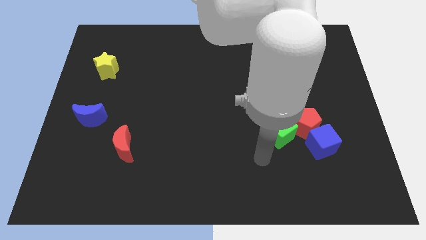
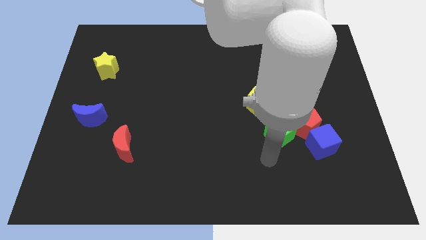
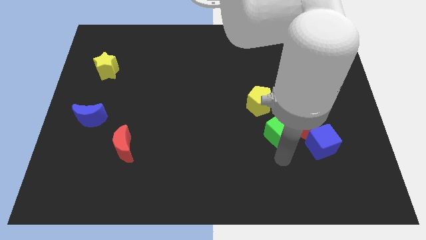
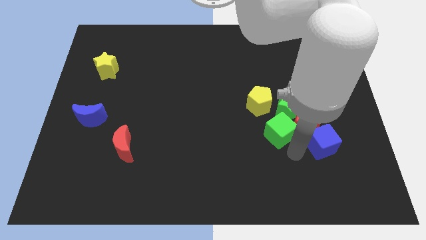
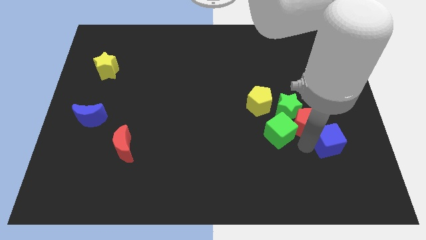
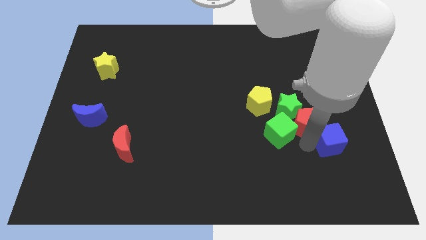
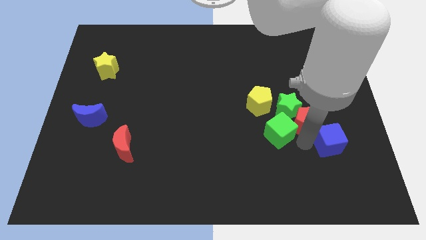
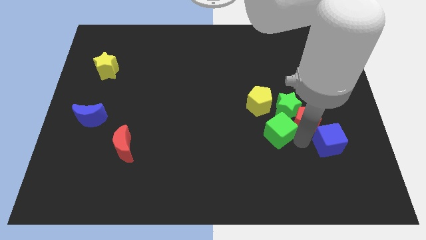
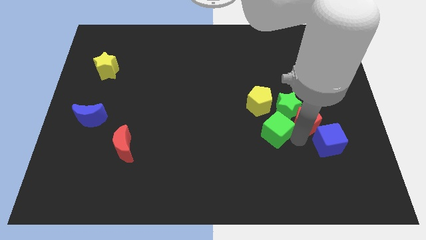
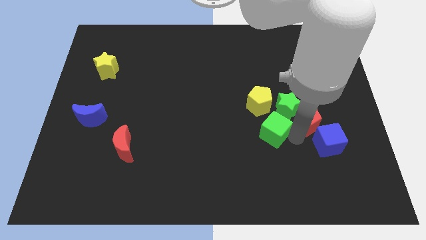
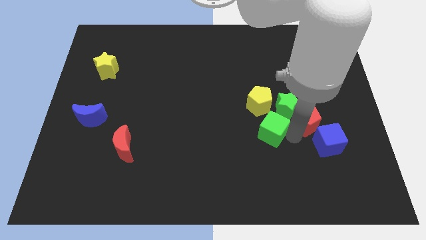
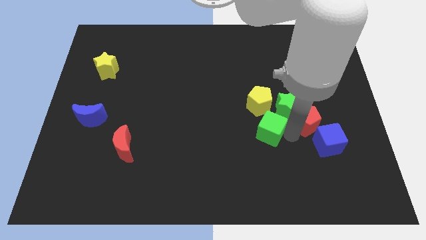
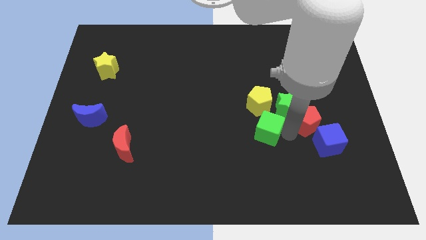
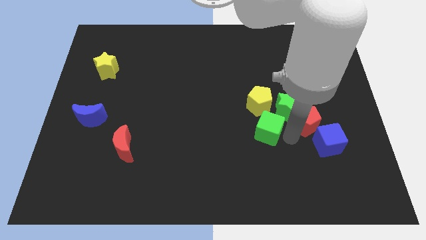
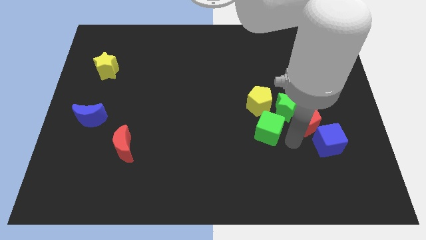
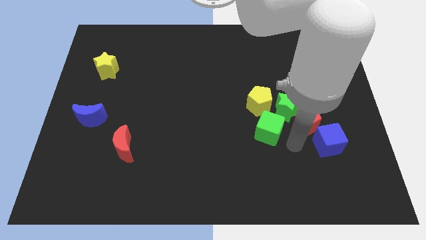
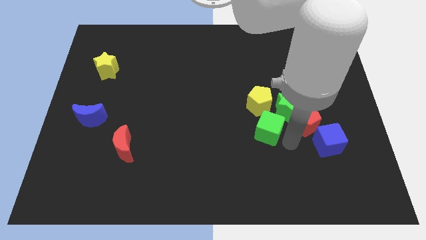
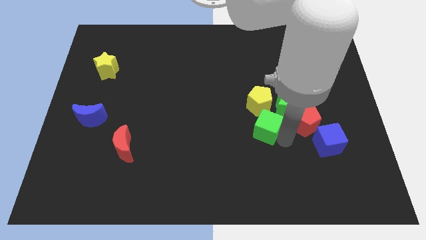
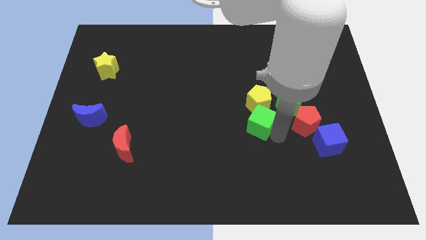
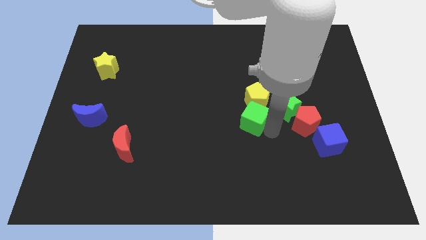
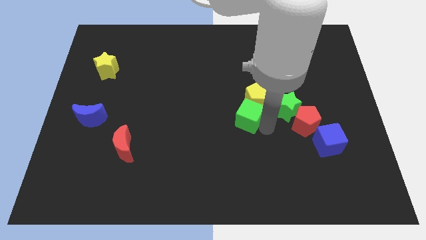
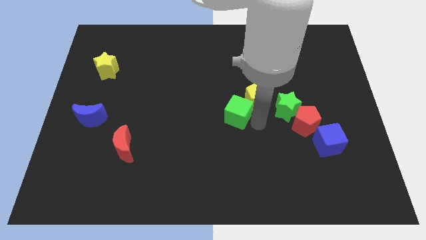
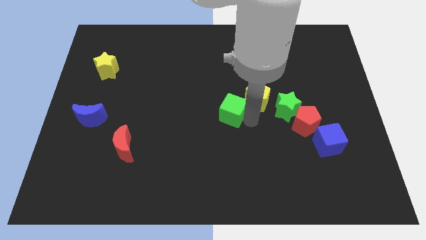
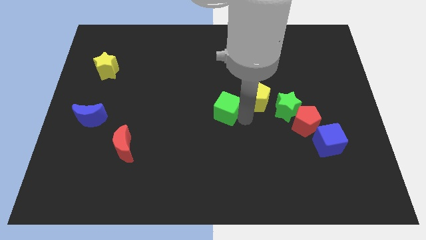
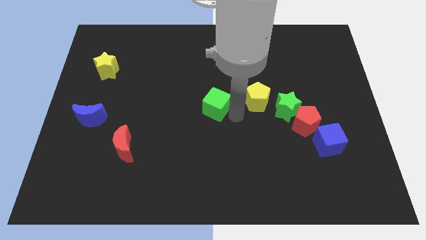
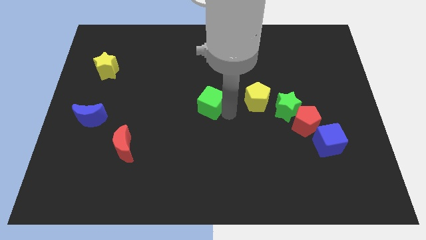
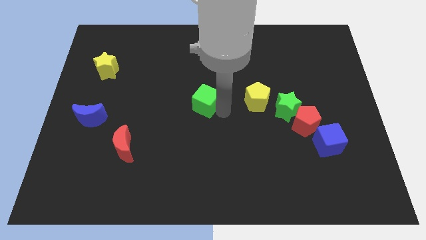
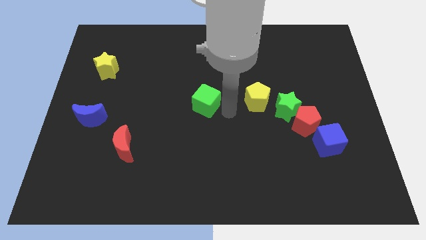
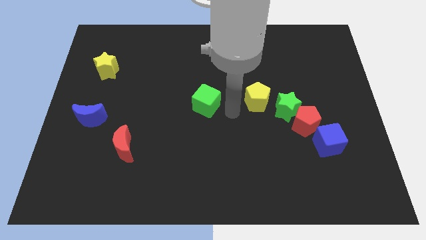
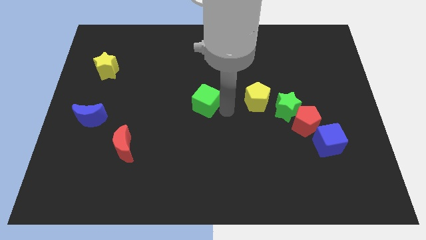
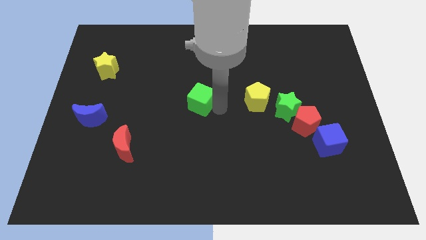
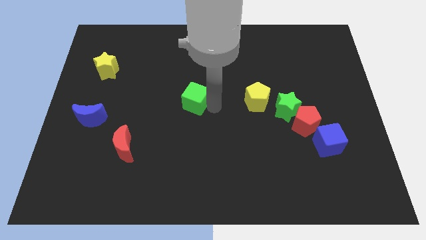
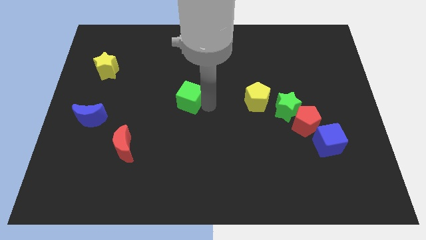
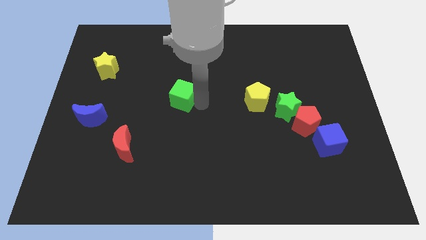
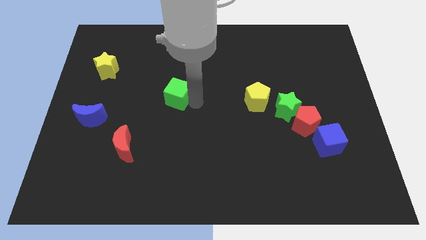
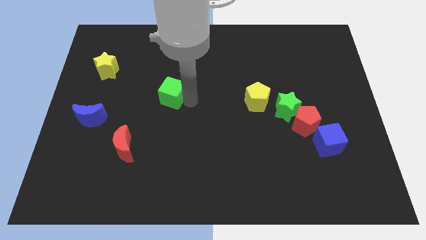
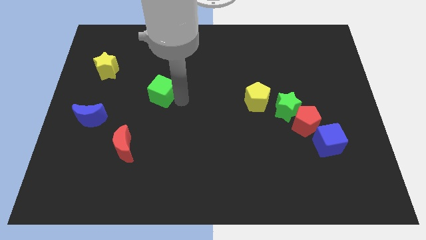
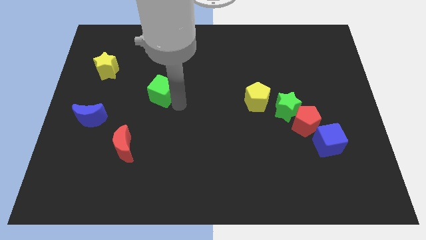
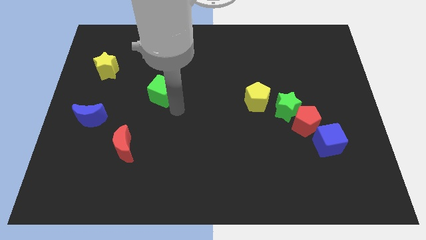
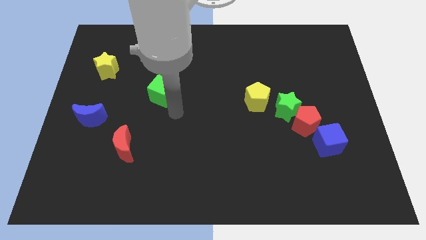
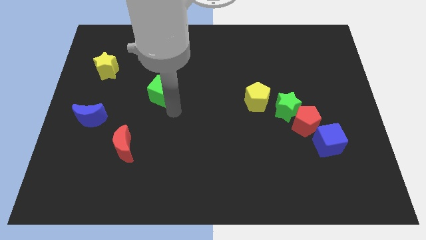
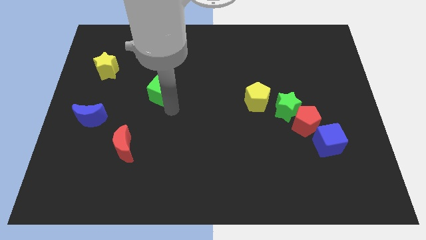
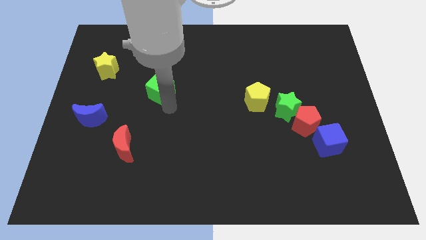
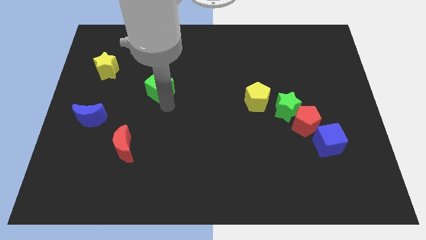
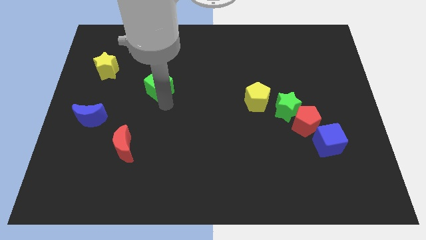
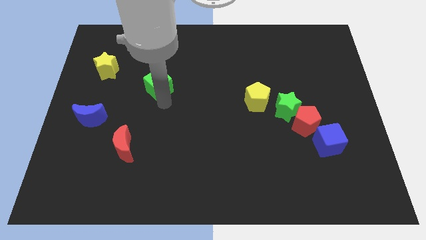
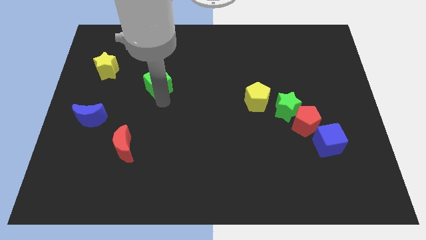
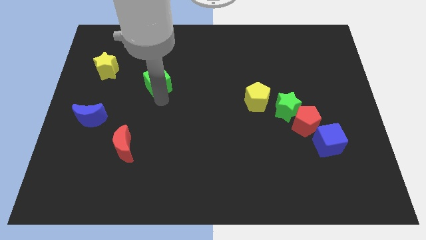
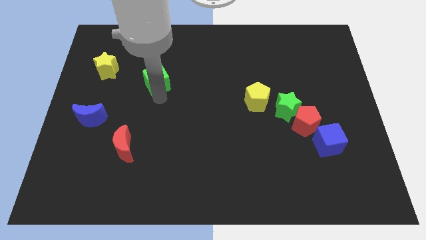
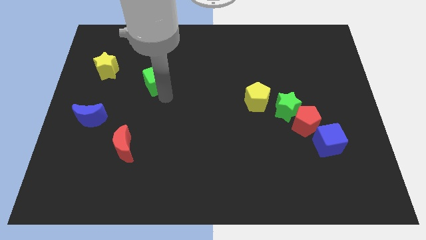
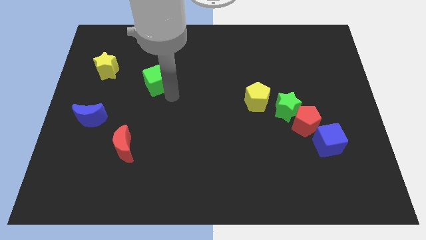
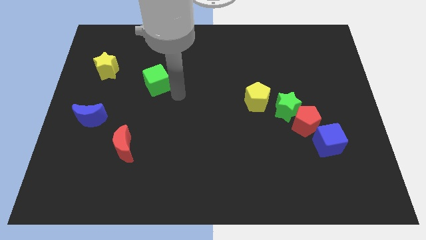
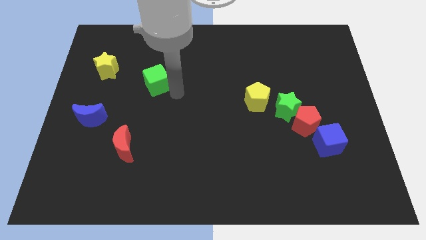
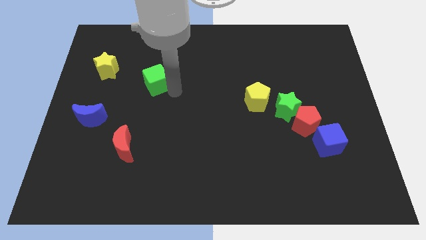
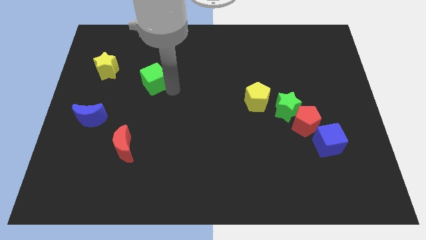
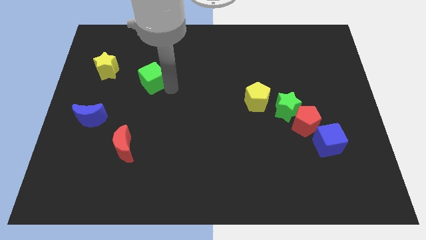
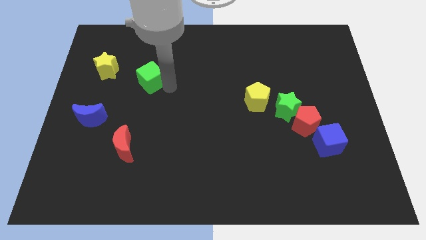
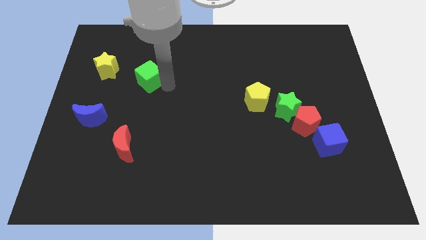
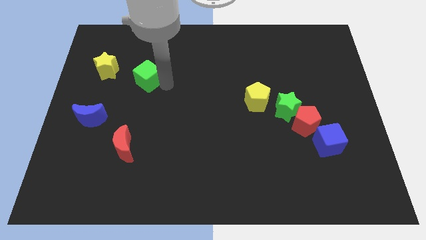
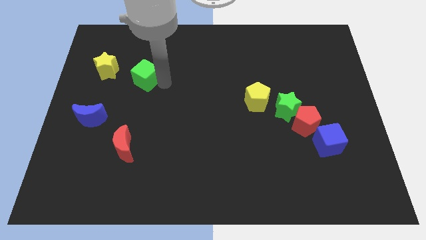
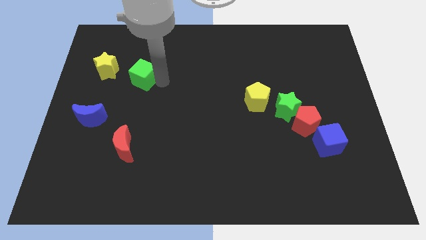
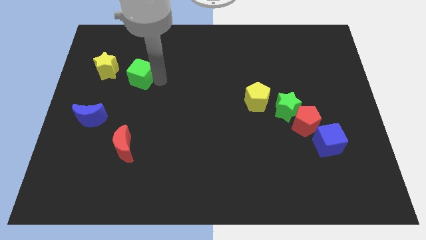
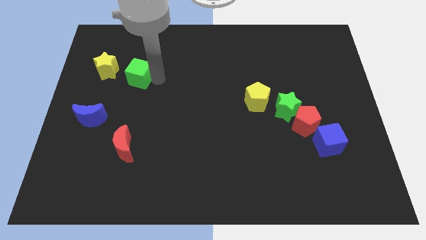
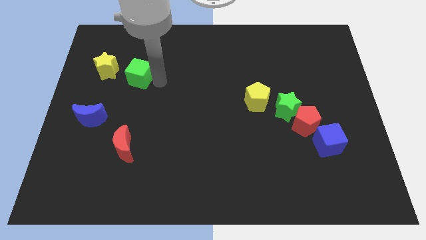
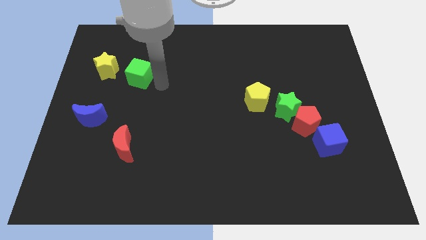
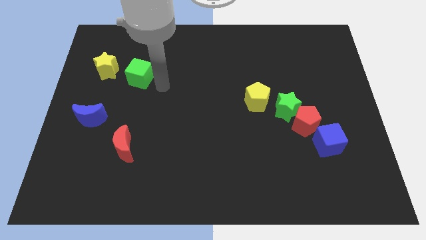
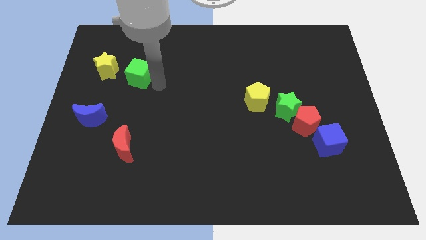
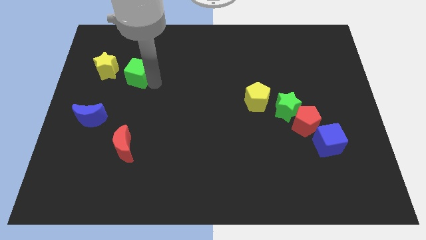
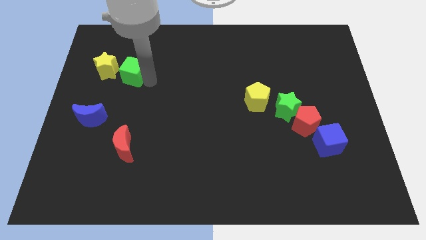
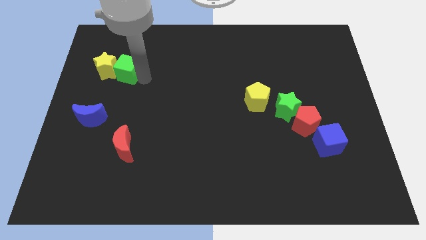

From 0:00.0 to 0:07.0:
put the green cube towards the yellow star
